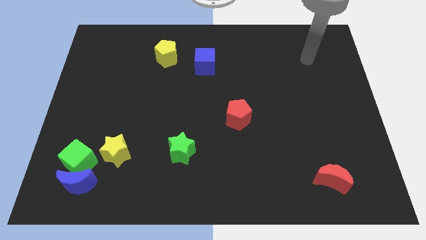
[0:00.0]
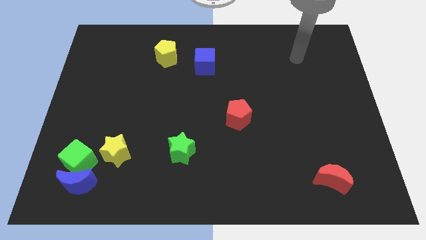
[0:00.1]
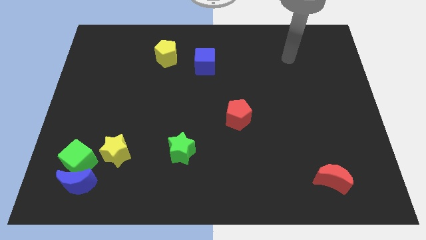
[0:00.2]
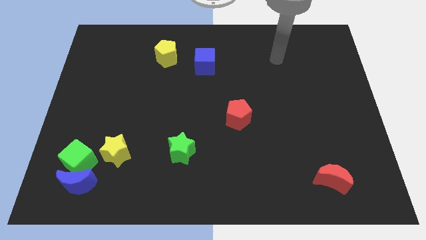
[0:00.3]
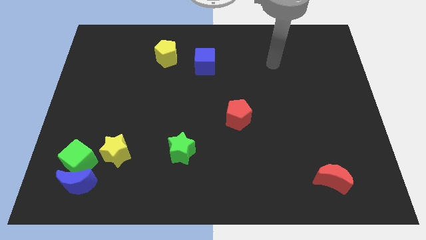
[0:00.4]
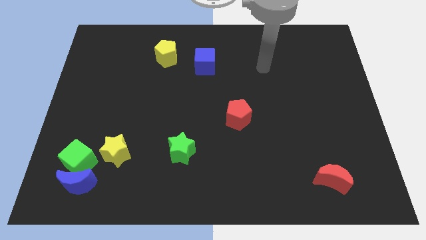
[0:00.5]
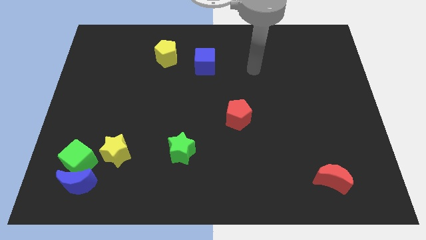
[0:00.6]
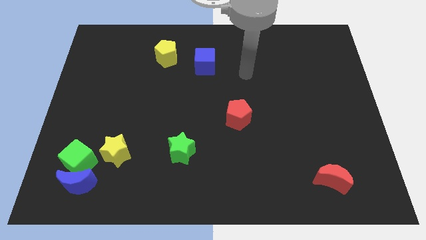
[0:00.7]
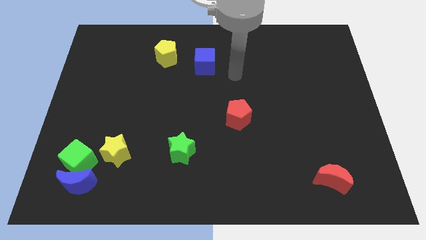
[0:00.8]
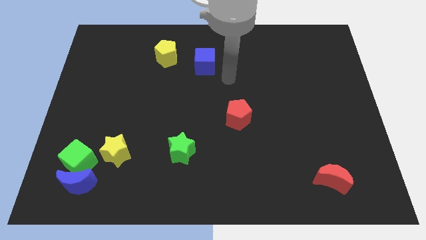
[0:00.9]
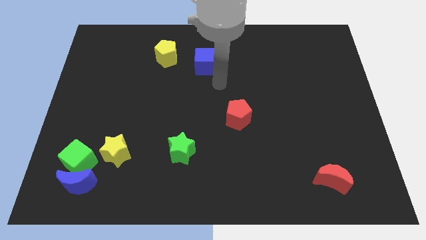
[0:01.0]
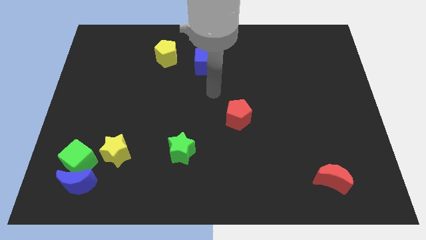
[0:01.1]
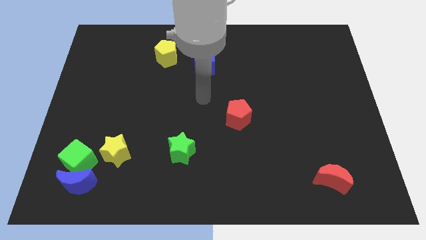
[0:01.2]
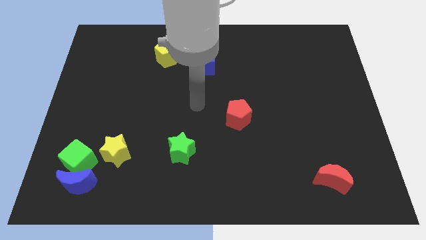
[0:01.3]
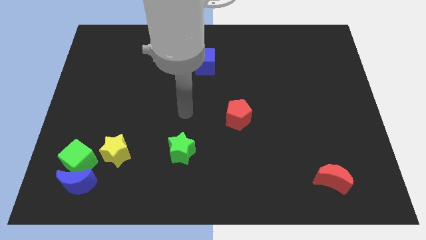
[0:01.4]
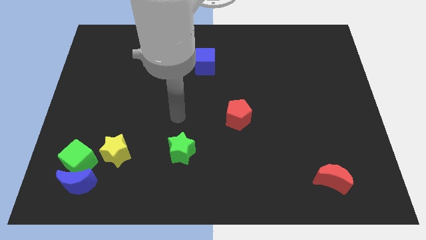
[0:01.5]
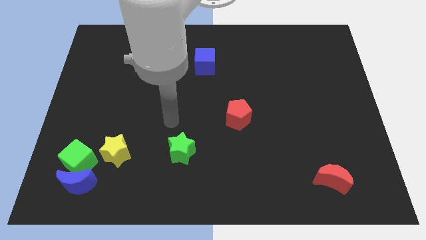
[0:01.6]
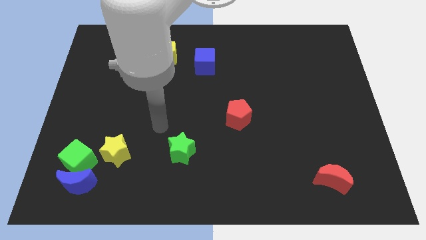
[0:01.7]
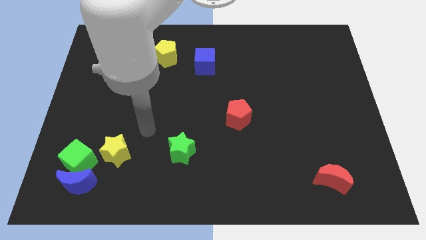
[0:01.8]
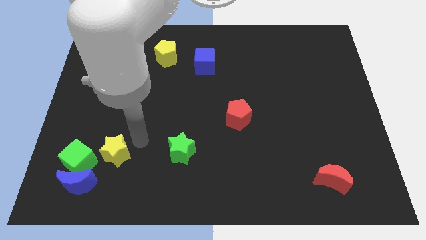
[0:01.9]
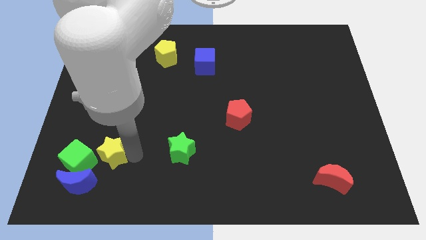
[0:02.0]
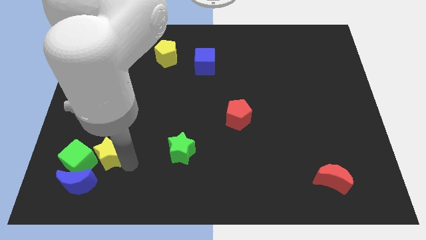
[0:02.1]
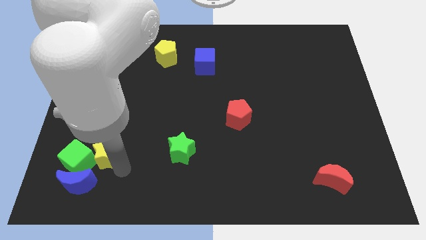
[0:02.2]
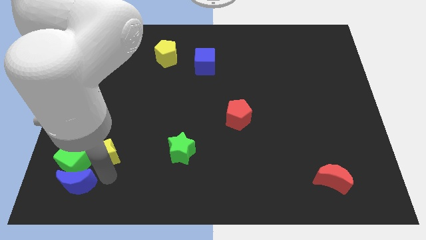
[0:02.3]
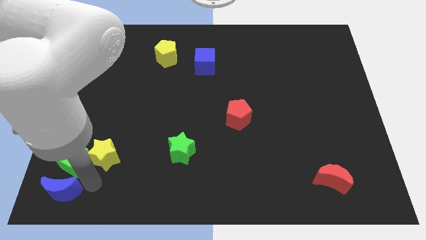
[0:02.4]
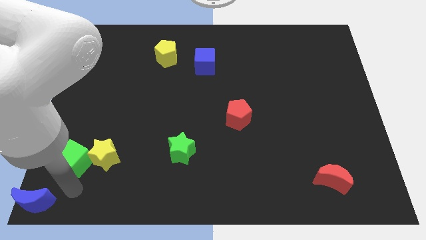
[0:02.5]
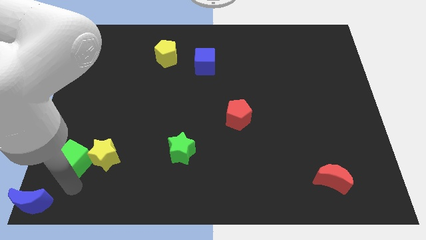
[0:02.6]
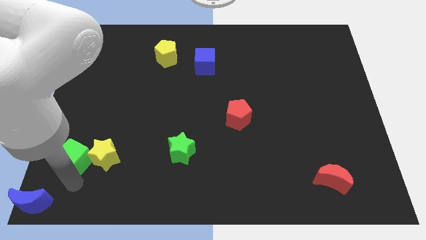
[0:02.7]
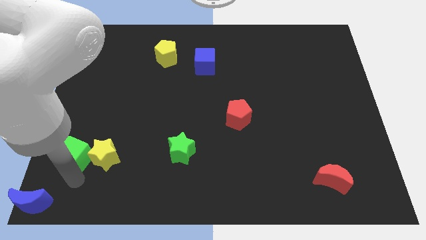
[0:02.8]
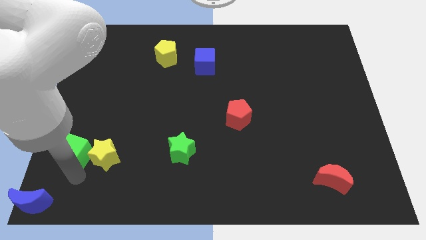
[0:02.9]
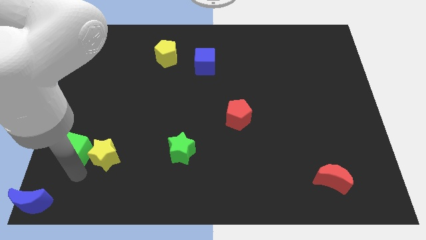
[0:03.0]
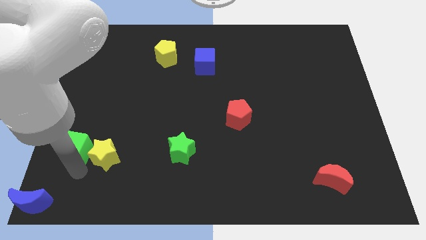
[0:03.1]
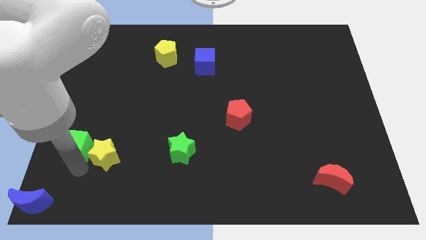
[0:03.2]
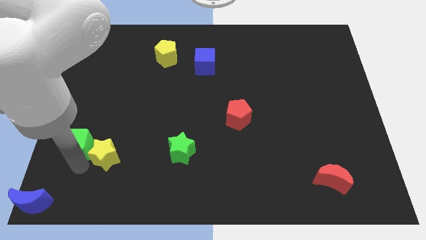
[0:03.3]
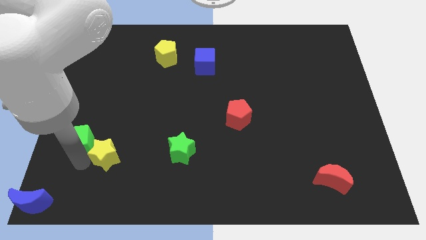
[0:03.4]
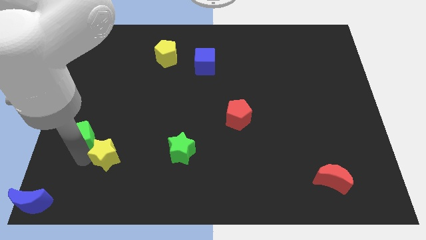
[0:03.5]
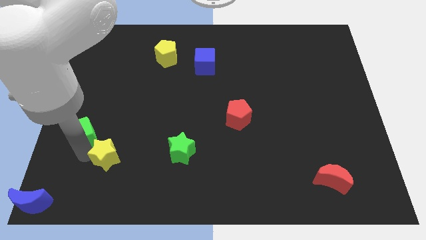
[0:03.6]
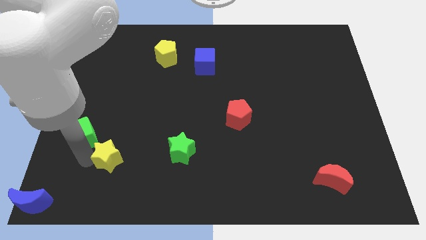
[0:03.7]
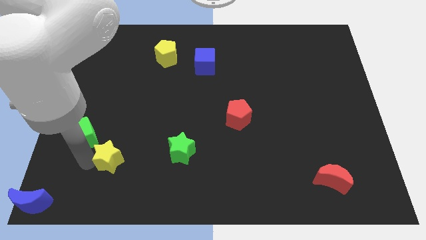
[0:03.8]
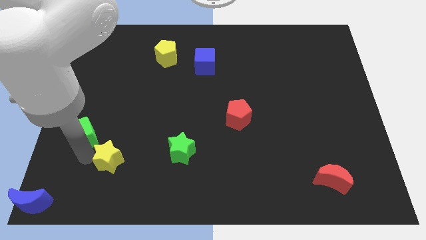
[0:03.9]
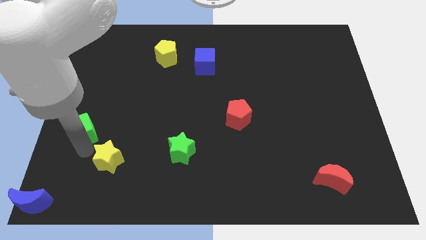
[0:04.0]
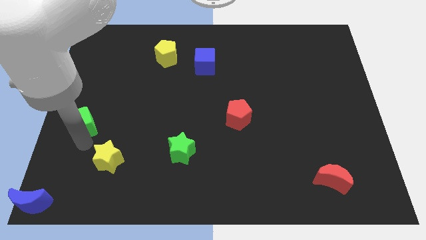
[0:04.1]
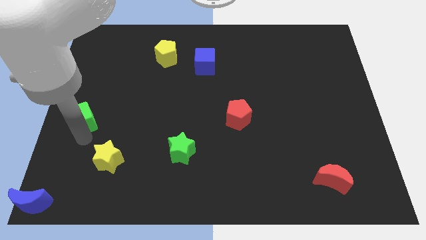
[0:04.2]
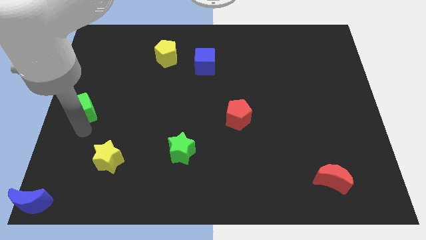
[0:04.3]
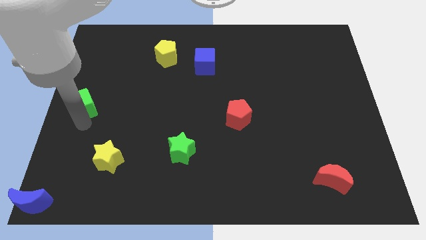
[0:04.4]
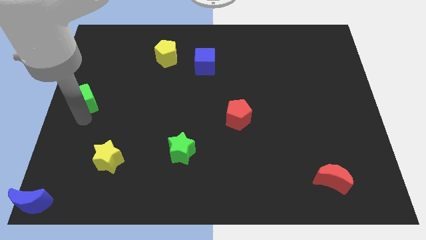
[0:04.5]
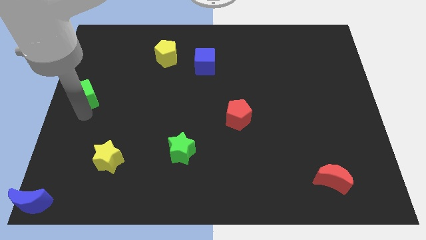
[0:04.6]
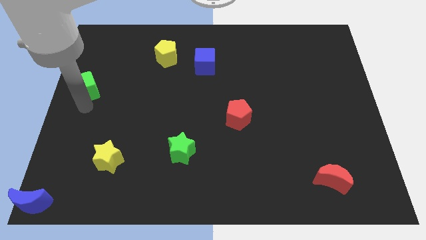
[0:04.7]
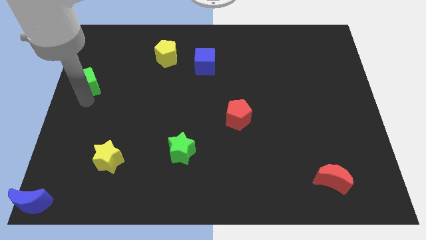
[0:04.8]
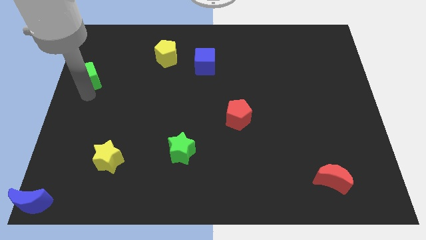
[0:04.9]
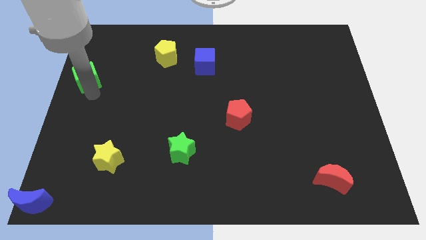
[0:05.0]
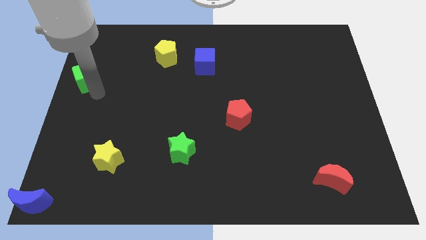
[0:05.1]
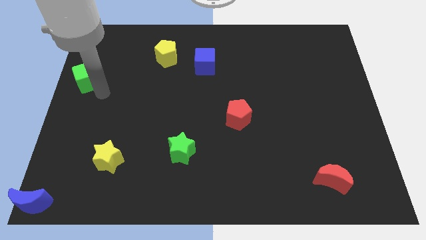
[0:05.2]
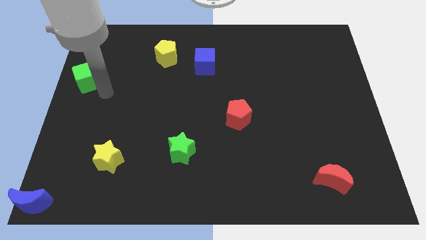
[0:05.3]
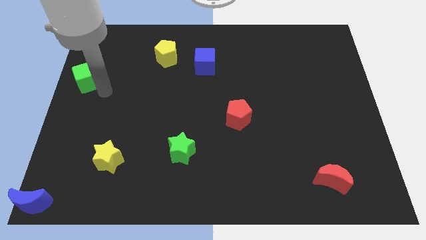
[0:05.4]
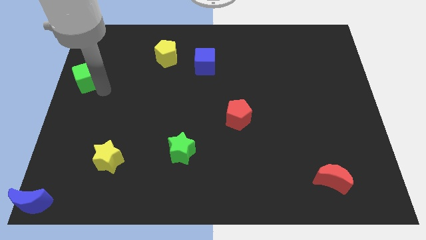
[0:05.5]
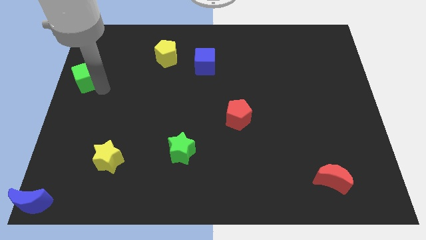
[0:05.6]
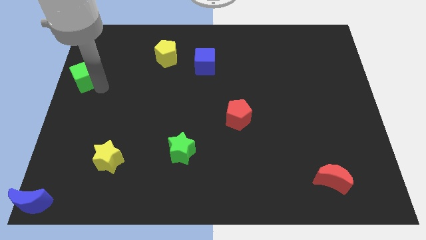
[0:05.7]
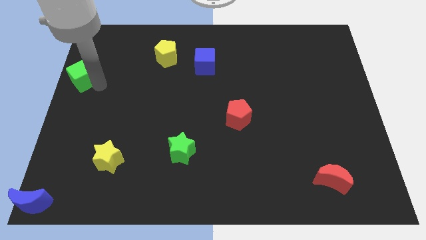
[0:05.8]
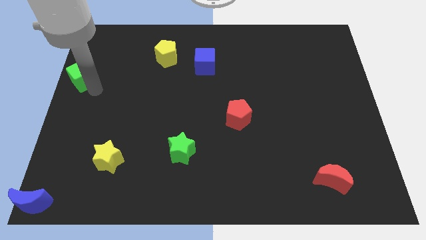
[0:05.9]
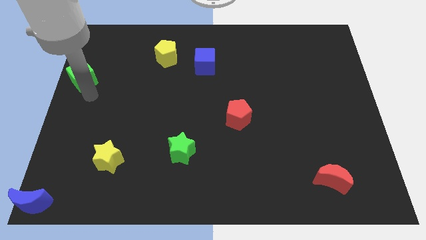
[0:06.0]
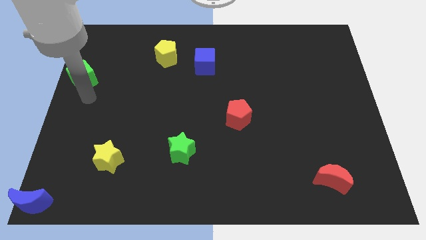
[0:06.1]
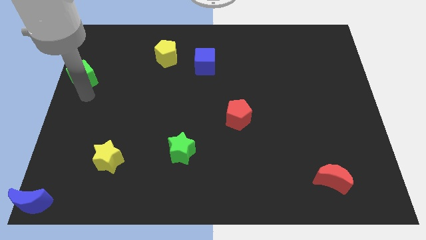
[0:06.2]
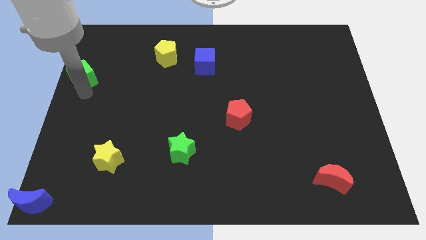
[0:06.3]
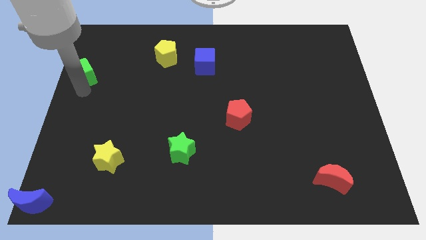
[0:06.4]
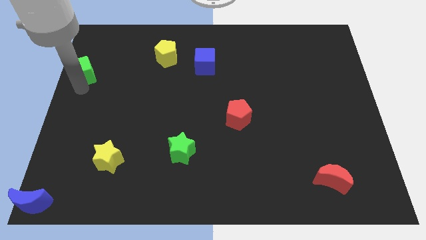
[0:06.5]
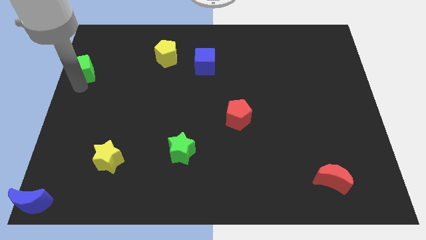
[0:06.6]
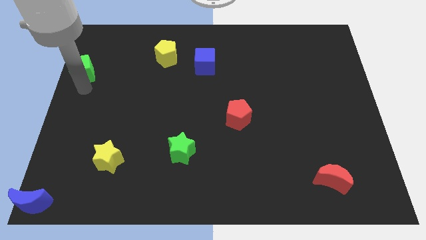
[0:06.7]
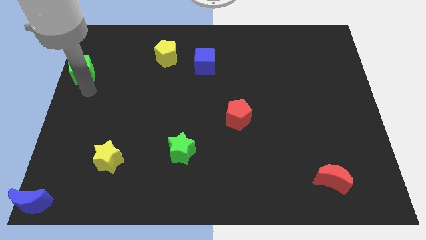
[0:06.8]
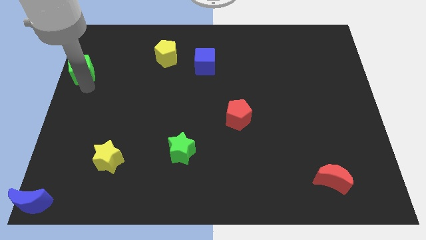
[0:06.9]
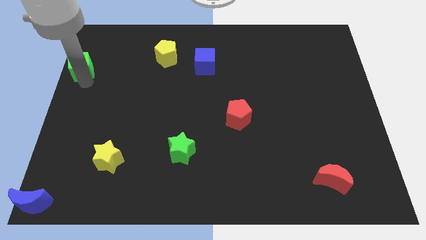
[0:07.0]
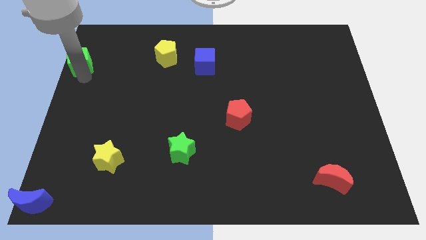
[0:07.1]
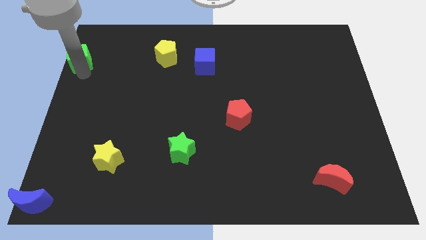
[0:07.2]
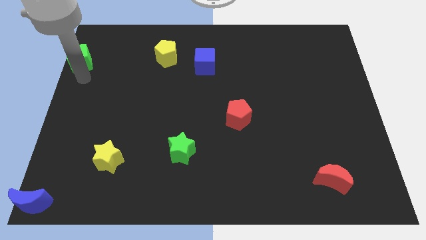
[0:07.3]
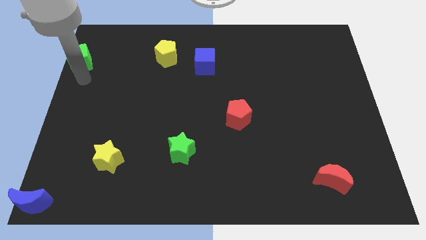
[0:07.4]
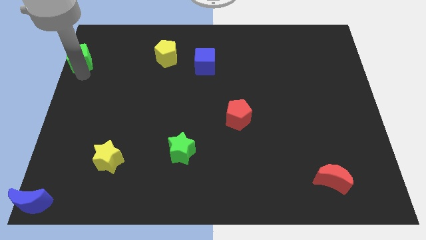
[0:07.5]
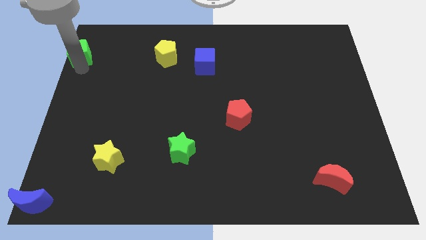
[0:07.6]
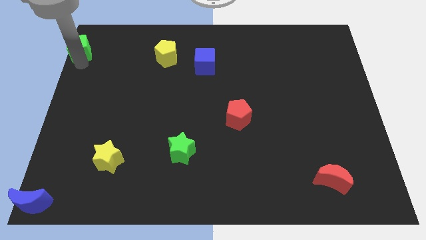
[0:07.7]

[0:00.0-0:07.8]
put the green cube to the top left of the board
